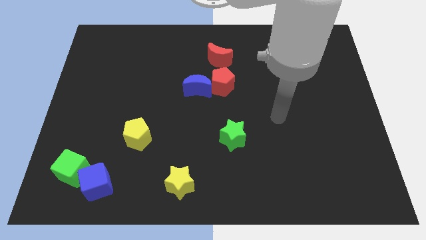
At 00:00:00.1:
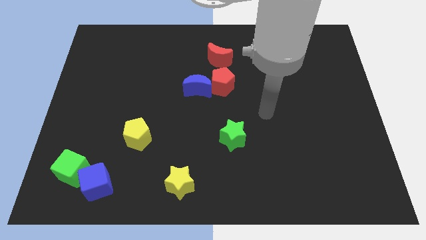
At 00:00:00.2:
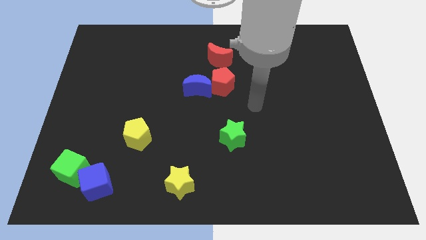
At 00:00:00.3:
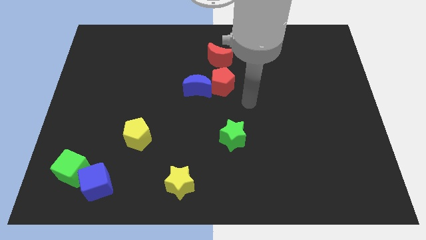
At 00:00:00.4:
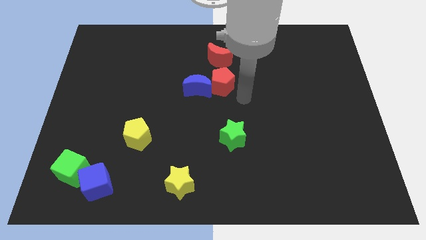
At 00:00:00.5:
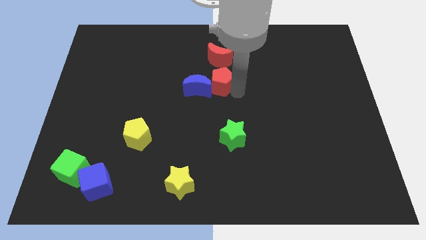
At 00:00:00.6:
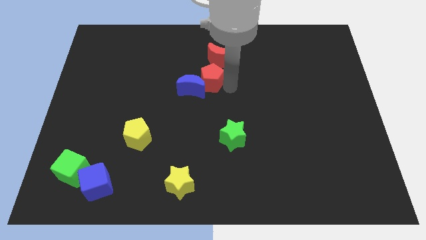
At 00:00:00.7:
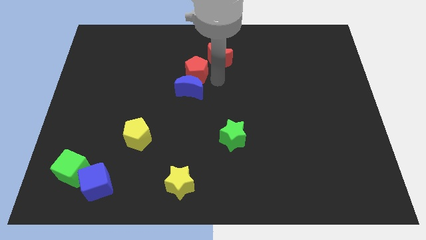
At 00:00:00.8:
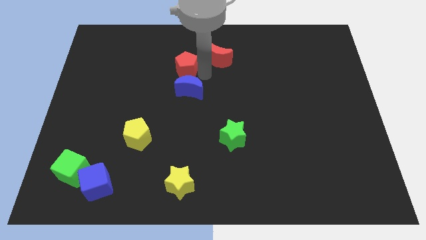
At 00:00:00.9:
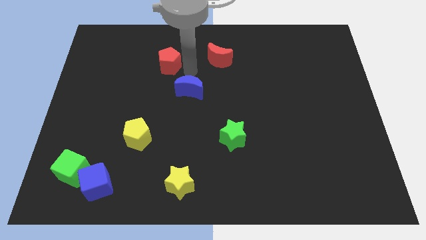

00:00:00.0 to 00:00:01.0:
move the blue moon away from the red pentagon

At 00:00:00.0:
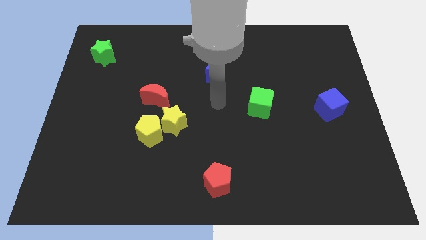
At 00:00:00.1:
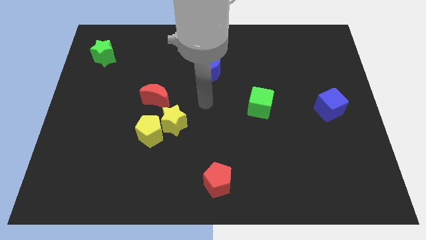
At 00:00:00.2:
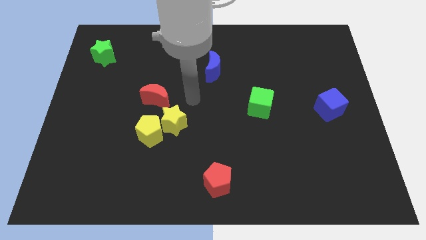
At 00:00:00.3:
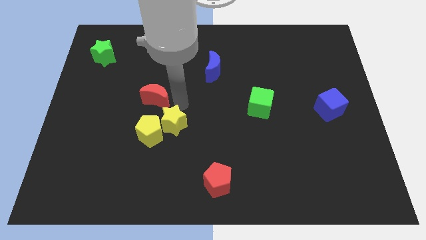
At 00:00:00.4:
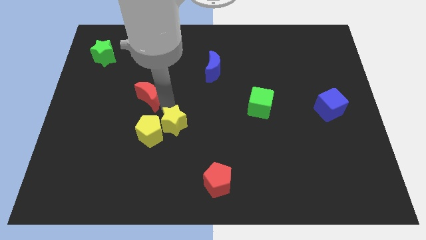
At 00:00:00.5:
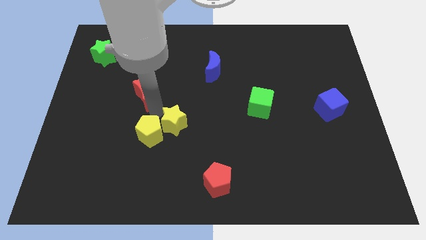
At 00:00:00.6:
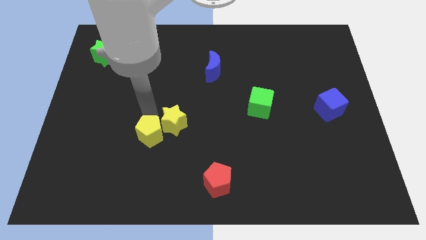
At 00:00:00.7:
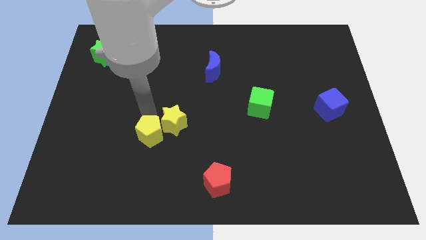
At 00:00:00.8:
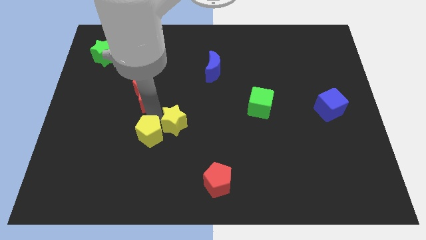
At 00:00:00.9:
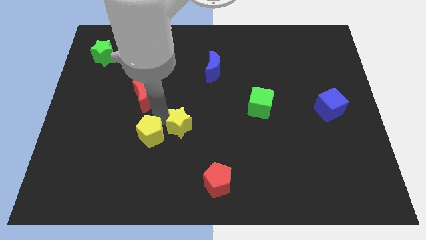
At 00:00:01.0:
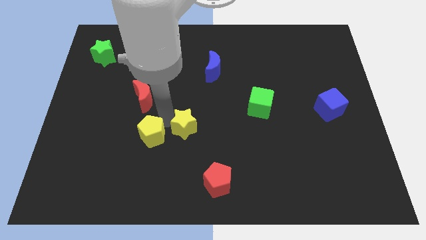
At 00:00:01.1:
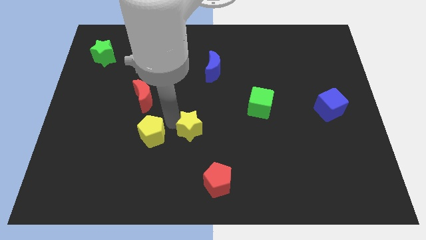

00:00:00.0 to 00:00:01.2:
separate the yellow star from the yellow pentagon and red moon

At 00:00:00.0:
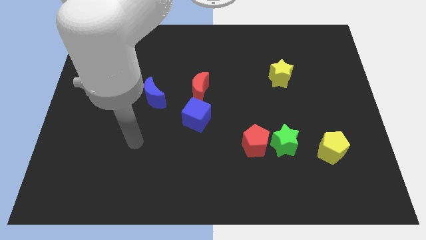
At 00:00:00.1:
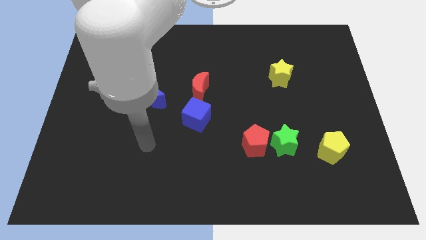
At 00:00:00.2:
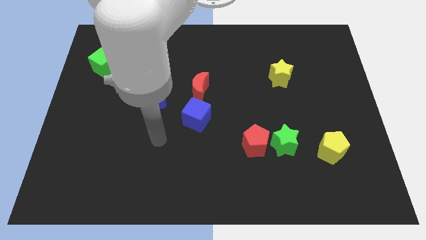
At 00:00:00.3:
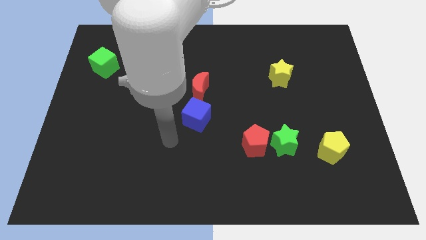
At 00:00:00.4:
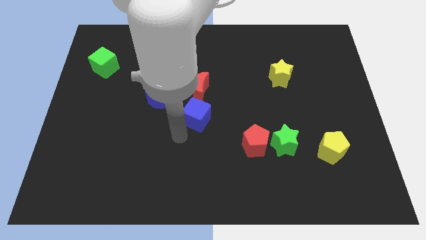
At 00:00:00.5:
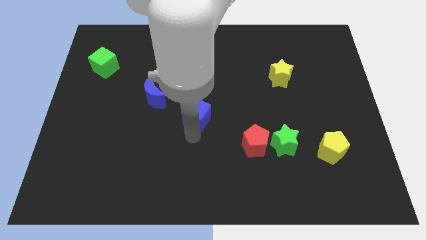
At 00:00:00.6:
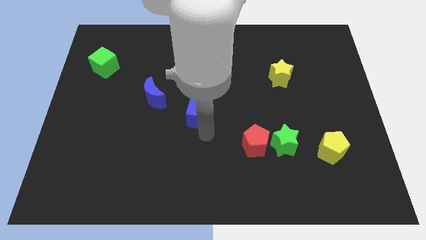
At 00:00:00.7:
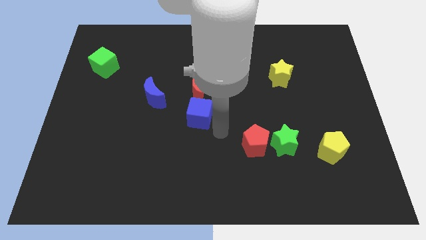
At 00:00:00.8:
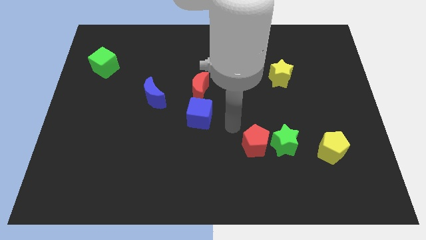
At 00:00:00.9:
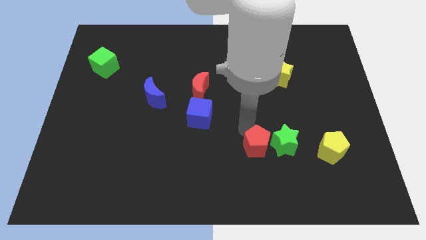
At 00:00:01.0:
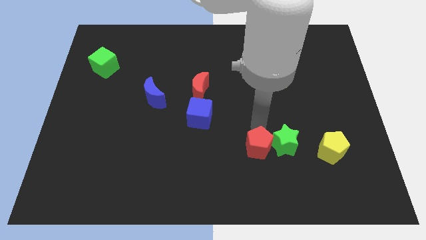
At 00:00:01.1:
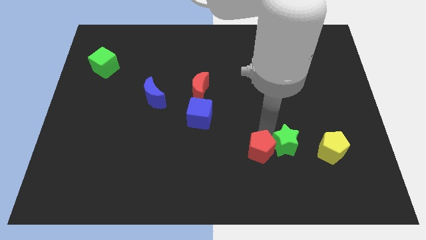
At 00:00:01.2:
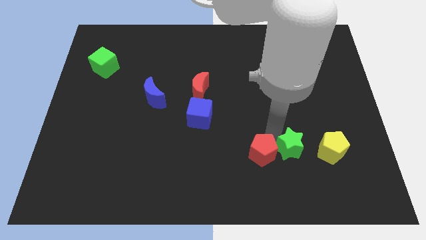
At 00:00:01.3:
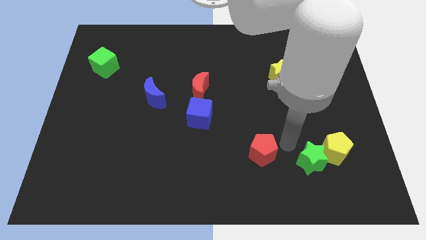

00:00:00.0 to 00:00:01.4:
pull the red pentagon apart from the green star

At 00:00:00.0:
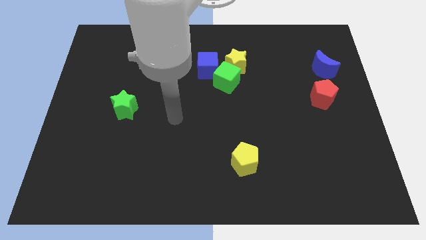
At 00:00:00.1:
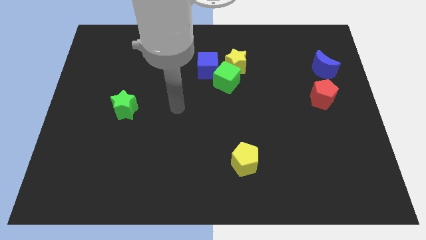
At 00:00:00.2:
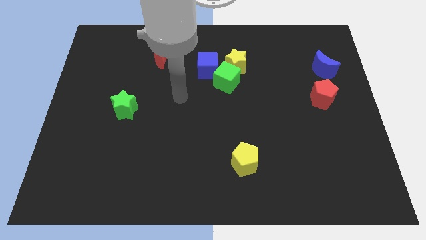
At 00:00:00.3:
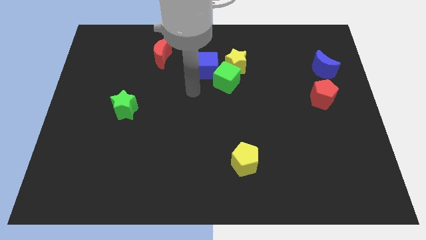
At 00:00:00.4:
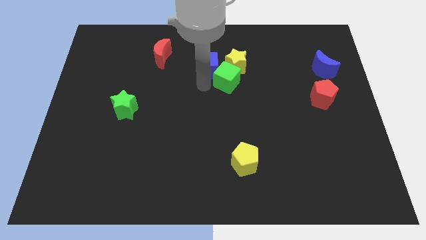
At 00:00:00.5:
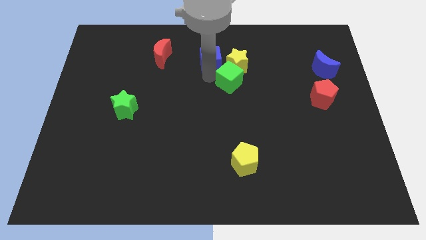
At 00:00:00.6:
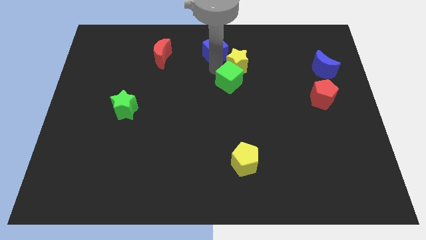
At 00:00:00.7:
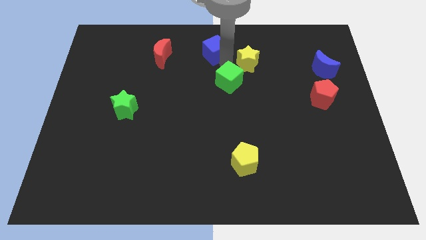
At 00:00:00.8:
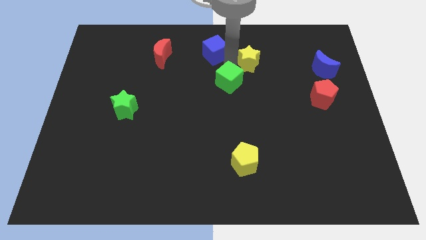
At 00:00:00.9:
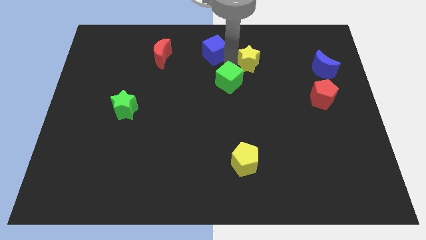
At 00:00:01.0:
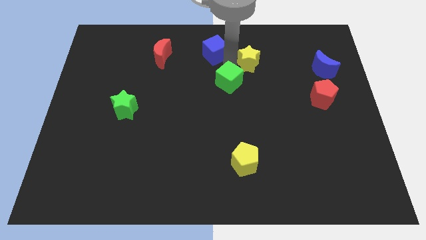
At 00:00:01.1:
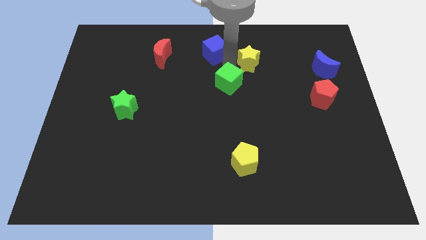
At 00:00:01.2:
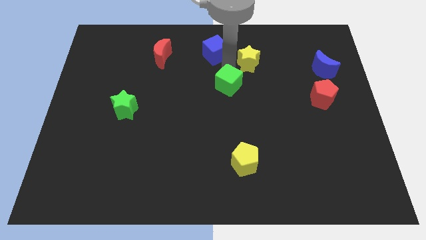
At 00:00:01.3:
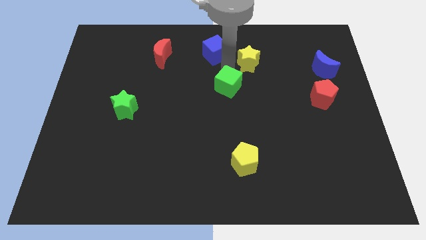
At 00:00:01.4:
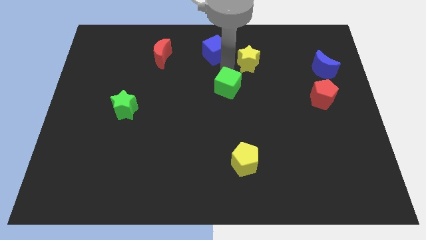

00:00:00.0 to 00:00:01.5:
move the green cube away from the yellow star and blue cube

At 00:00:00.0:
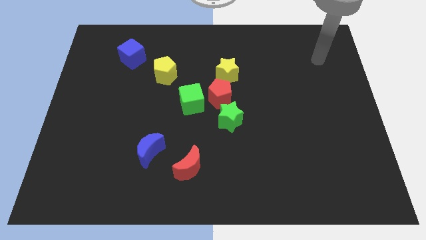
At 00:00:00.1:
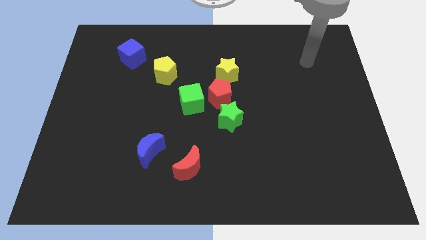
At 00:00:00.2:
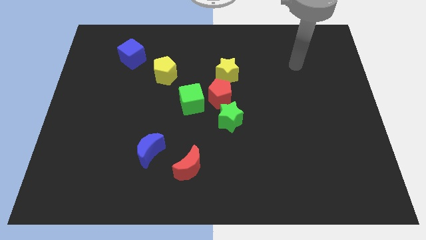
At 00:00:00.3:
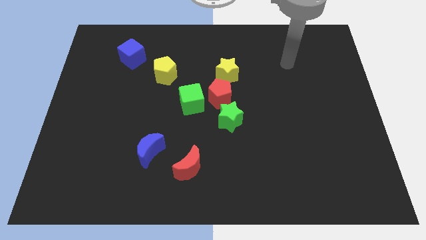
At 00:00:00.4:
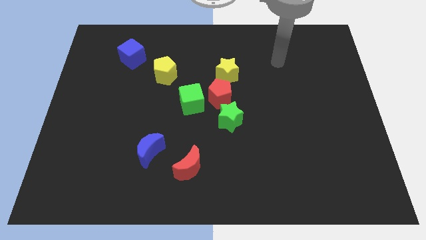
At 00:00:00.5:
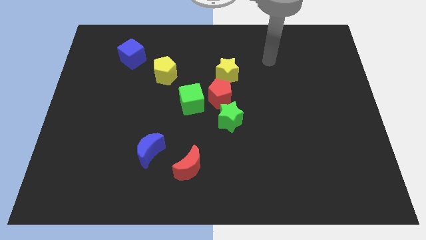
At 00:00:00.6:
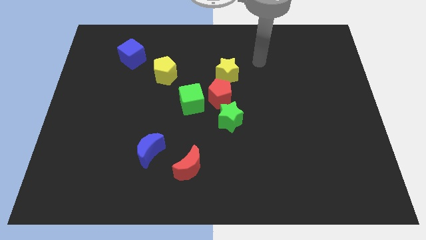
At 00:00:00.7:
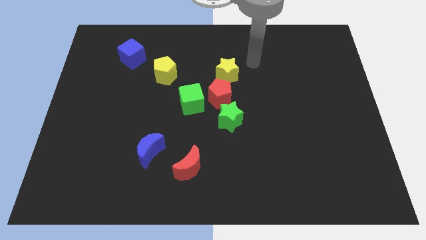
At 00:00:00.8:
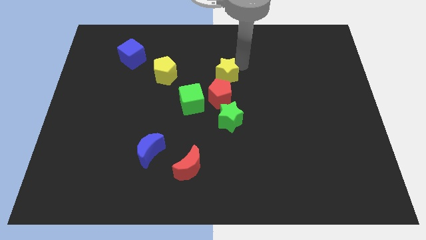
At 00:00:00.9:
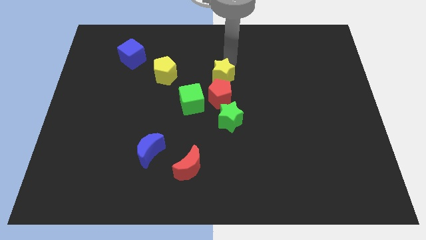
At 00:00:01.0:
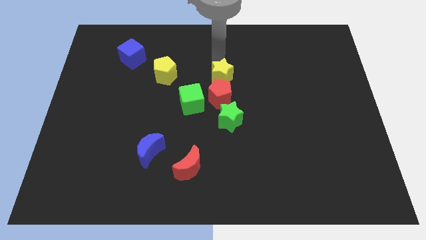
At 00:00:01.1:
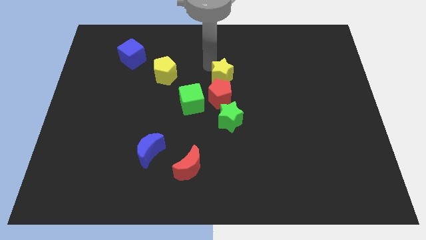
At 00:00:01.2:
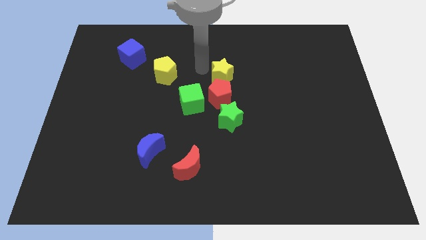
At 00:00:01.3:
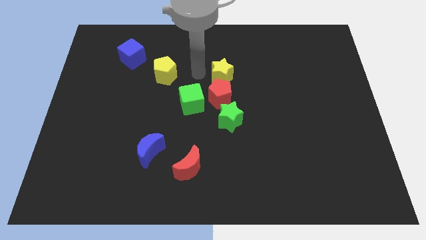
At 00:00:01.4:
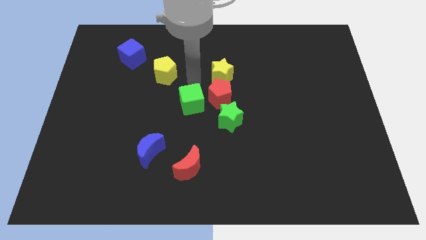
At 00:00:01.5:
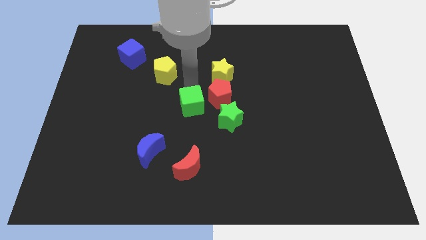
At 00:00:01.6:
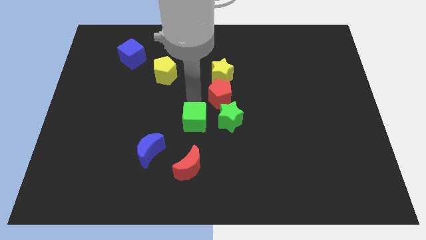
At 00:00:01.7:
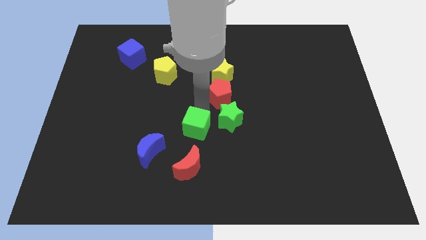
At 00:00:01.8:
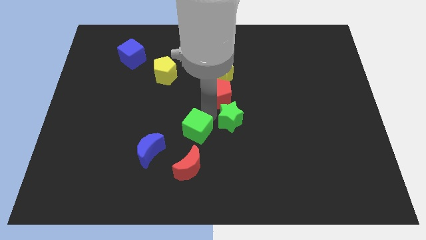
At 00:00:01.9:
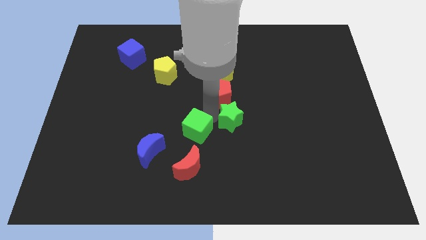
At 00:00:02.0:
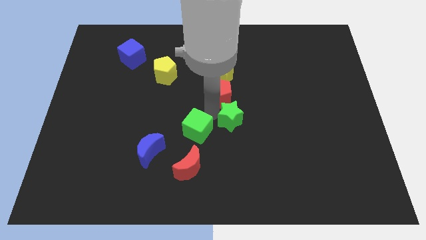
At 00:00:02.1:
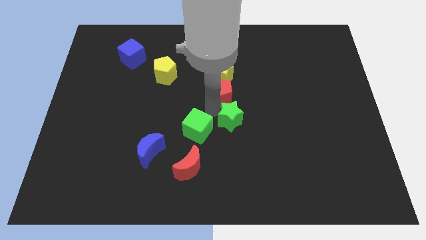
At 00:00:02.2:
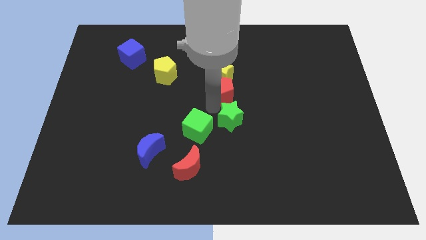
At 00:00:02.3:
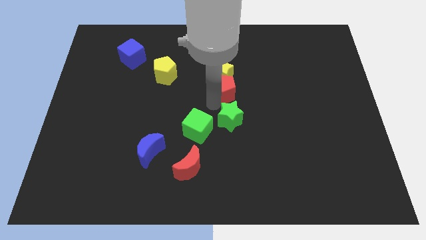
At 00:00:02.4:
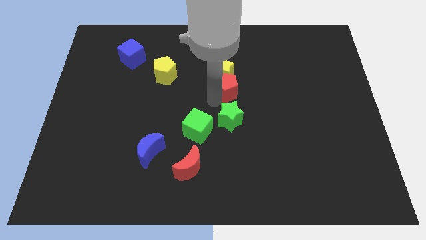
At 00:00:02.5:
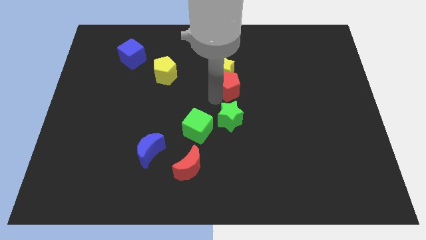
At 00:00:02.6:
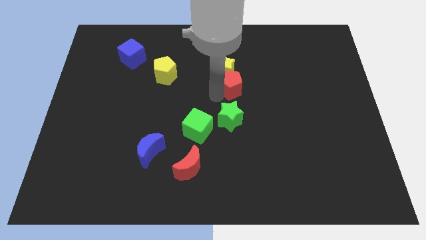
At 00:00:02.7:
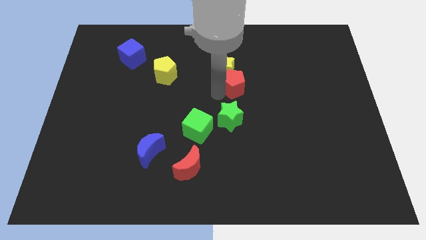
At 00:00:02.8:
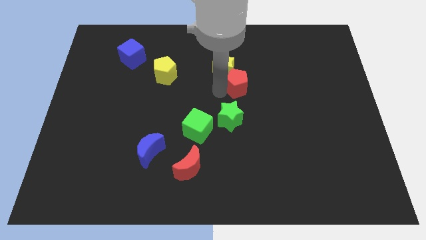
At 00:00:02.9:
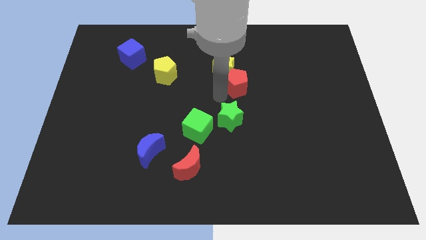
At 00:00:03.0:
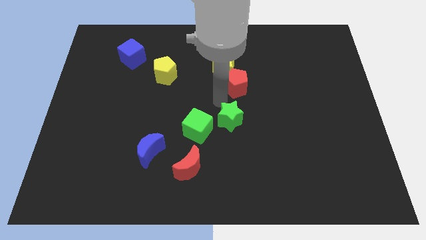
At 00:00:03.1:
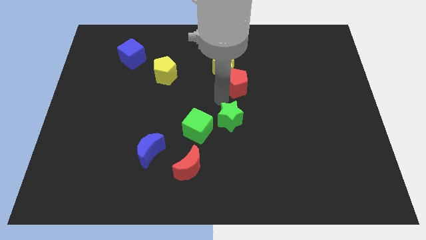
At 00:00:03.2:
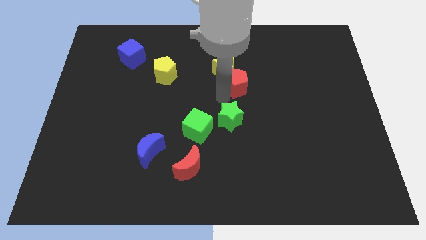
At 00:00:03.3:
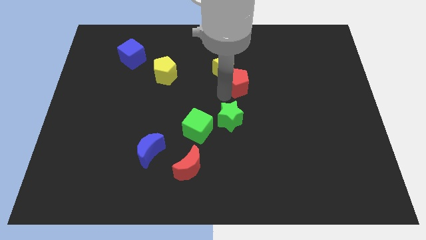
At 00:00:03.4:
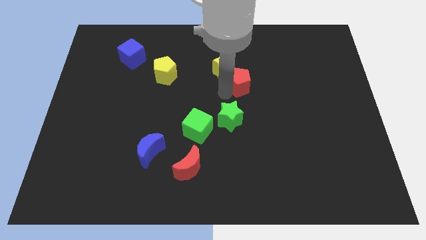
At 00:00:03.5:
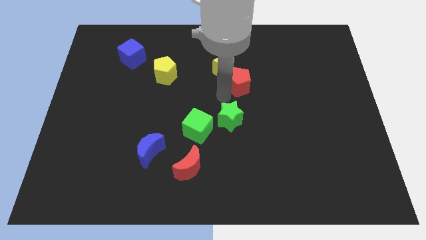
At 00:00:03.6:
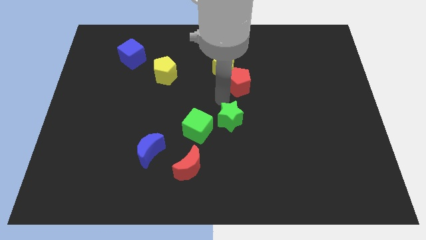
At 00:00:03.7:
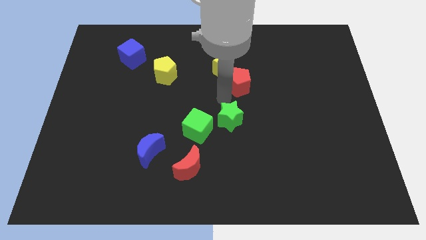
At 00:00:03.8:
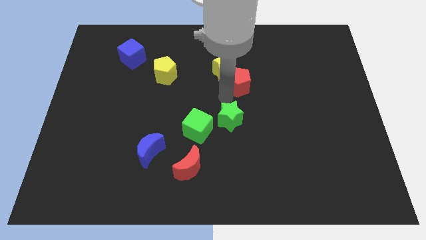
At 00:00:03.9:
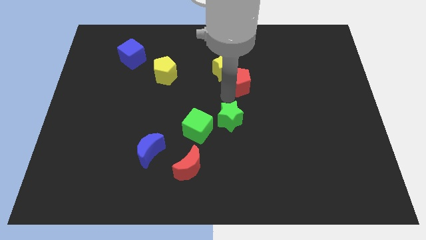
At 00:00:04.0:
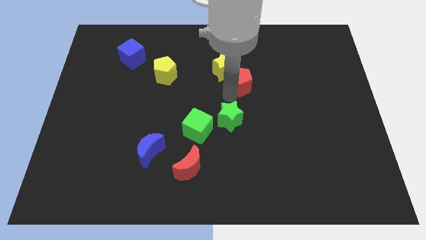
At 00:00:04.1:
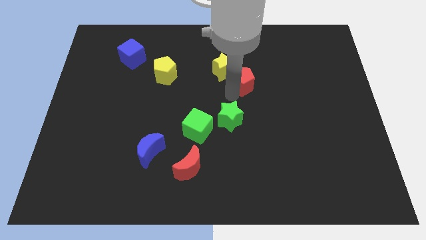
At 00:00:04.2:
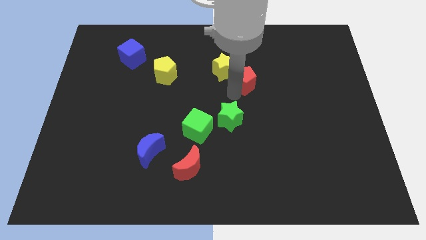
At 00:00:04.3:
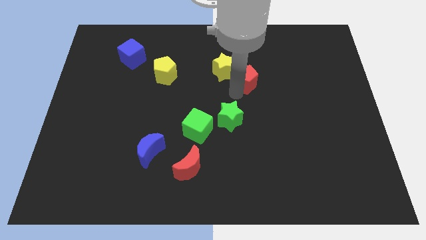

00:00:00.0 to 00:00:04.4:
separate the red pentagon from the green star, green cube, and yellow star
